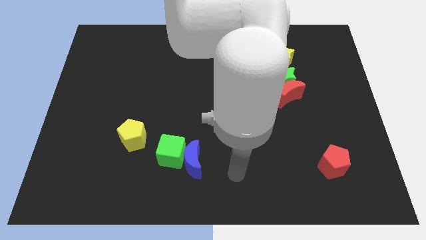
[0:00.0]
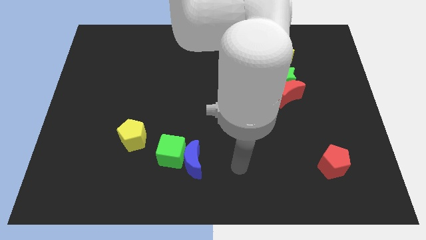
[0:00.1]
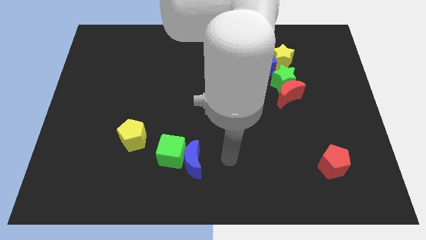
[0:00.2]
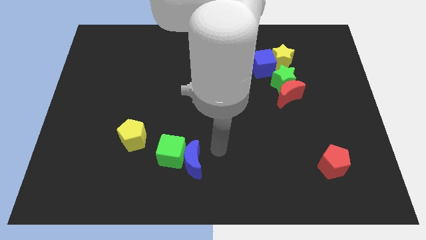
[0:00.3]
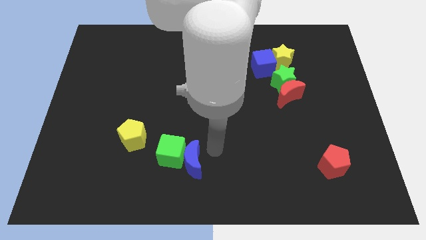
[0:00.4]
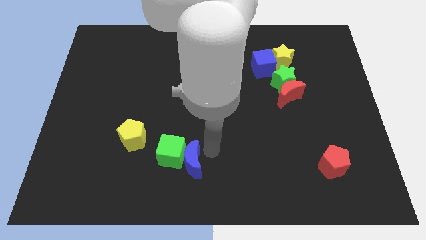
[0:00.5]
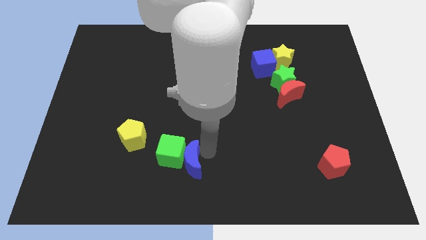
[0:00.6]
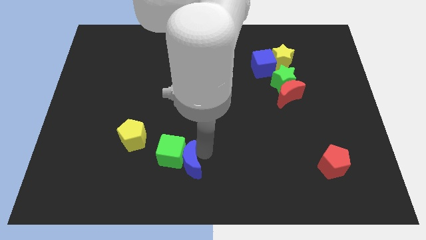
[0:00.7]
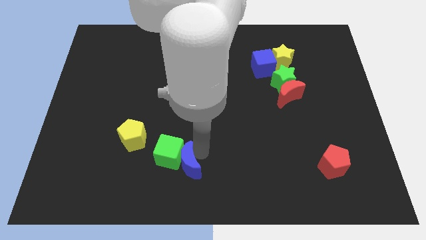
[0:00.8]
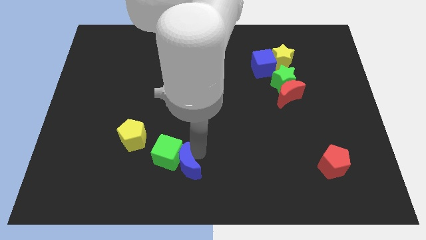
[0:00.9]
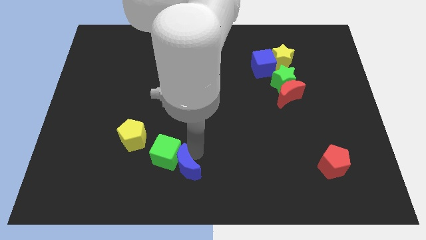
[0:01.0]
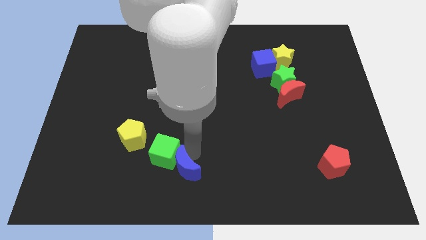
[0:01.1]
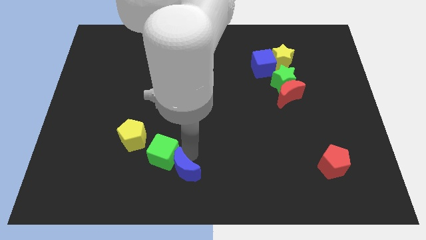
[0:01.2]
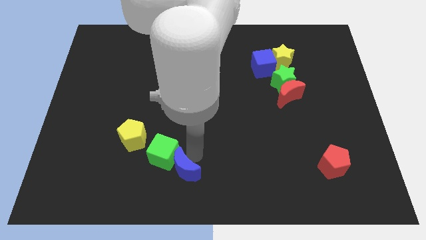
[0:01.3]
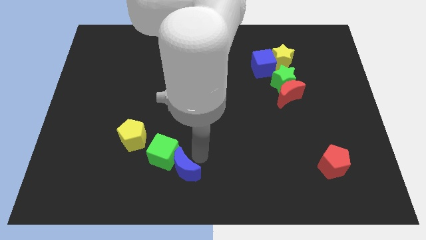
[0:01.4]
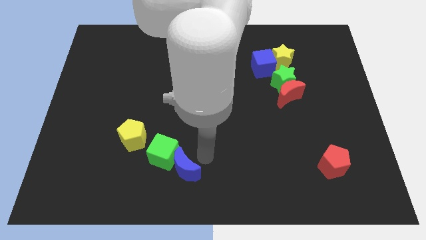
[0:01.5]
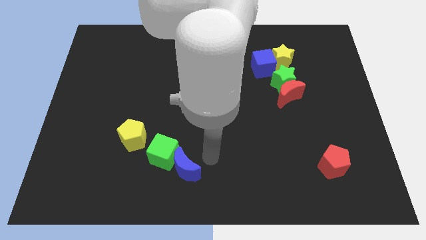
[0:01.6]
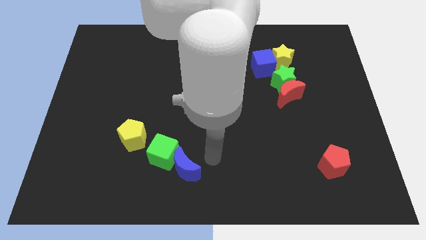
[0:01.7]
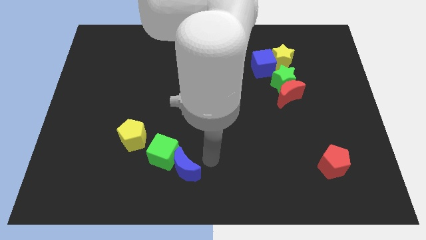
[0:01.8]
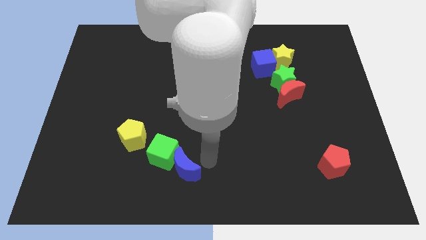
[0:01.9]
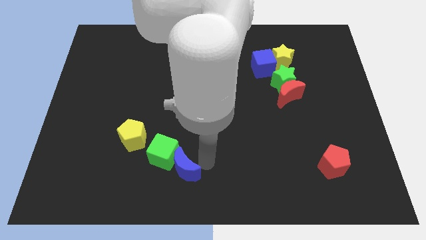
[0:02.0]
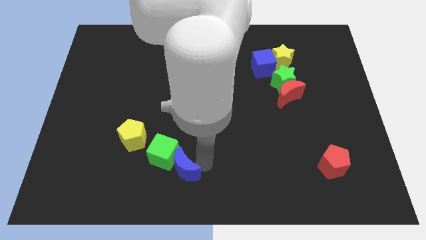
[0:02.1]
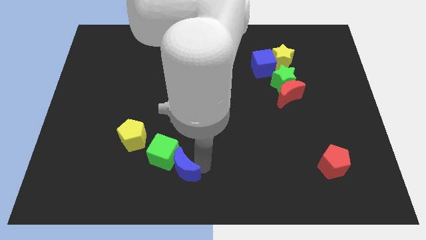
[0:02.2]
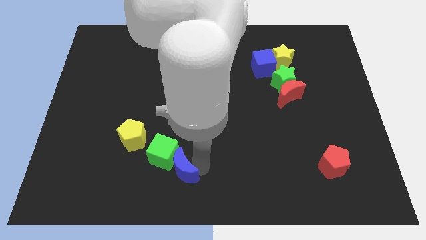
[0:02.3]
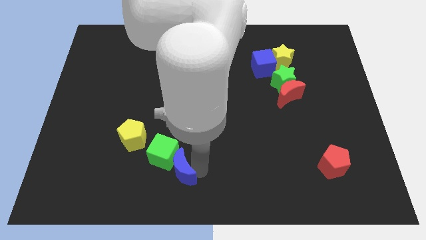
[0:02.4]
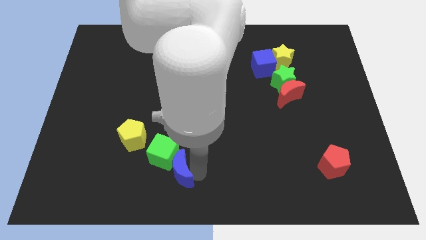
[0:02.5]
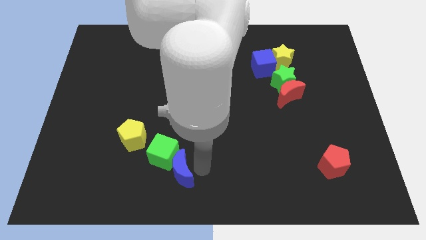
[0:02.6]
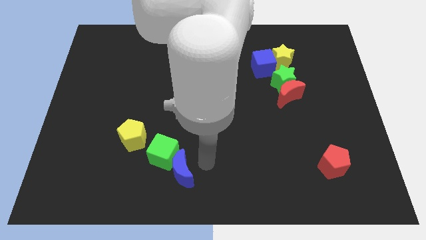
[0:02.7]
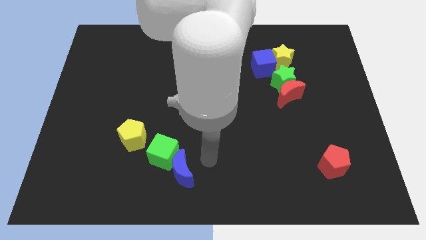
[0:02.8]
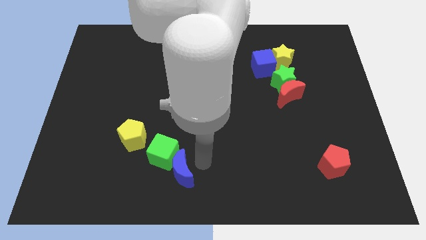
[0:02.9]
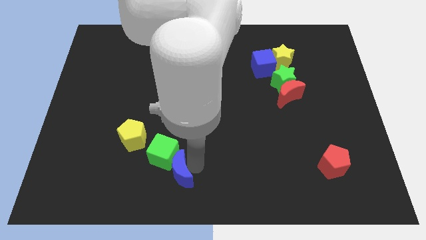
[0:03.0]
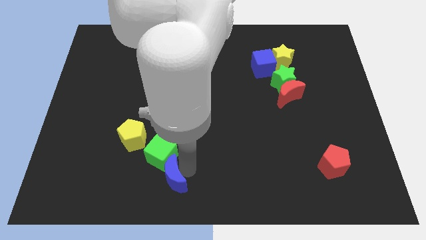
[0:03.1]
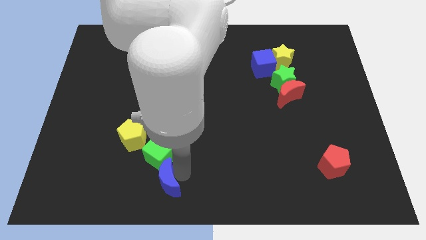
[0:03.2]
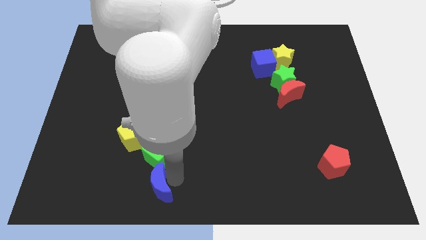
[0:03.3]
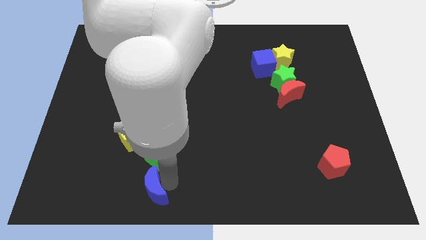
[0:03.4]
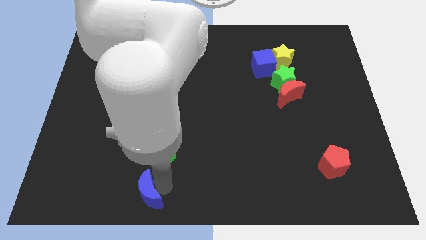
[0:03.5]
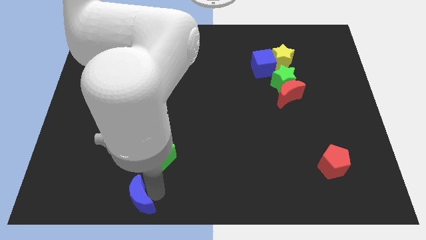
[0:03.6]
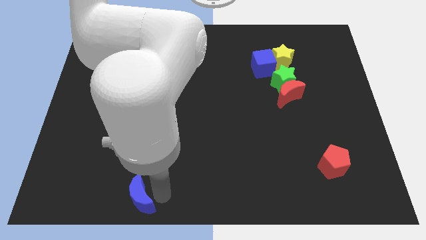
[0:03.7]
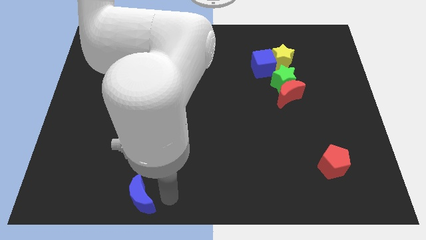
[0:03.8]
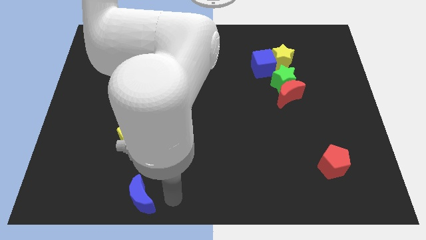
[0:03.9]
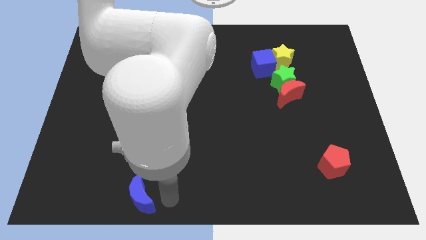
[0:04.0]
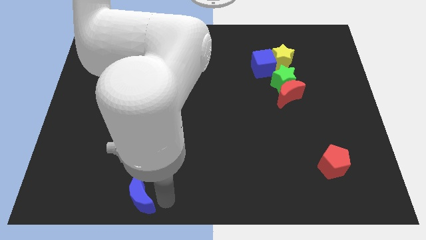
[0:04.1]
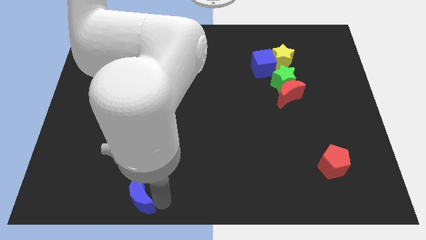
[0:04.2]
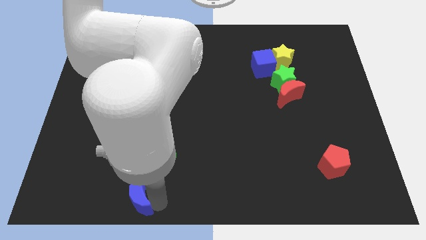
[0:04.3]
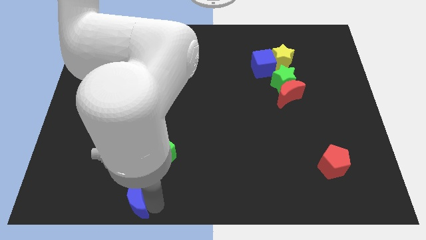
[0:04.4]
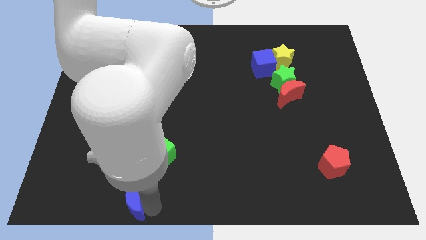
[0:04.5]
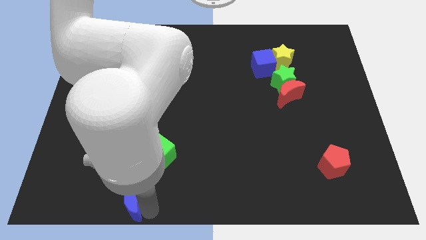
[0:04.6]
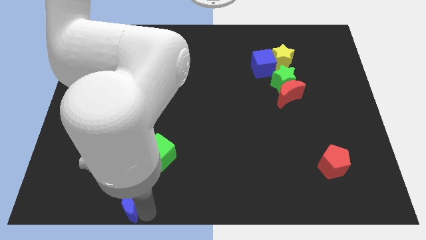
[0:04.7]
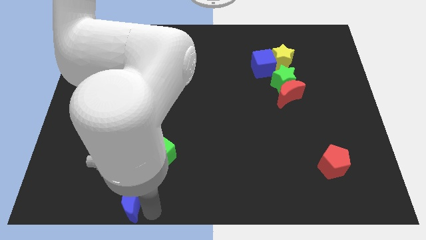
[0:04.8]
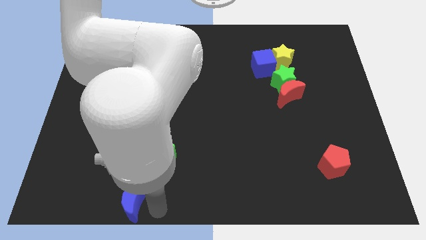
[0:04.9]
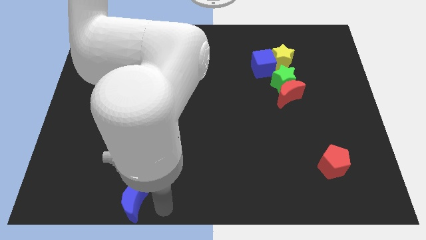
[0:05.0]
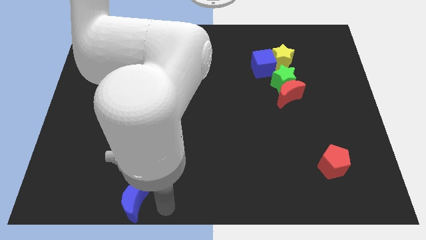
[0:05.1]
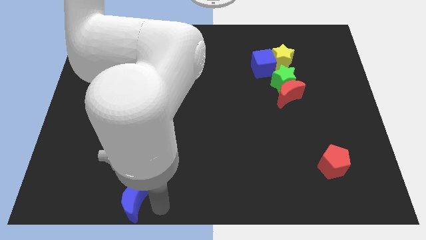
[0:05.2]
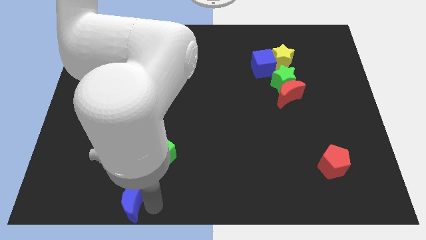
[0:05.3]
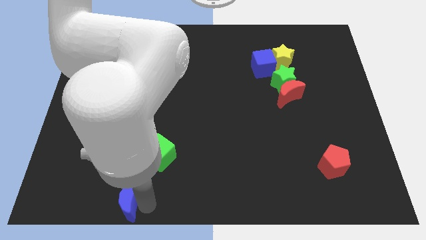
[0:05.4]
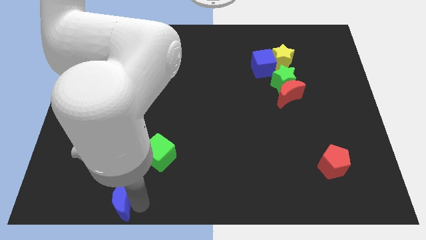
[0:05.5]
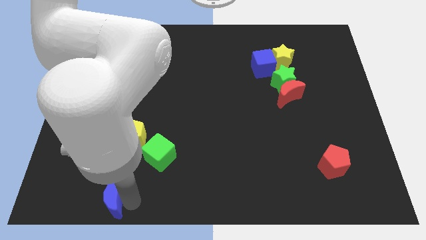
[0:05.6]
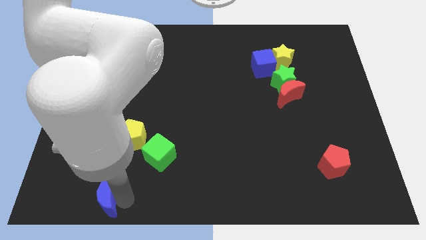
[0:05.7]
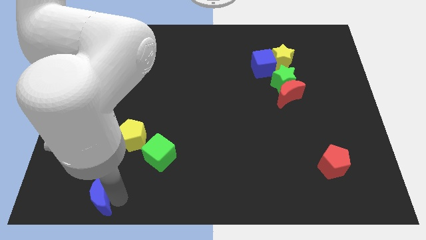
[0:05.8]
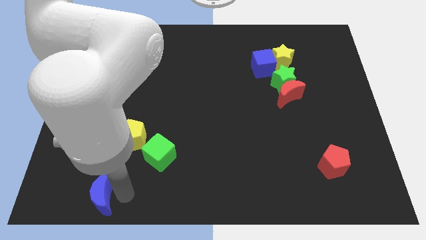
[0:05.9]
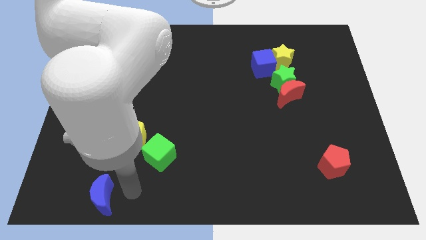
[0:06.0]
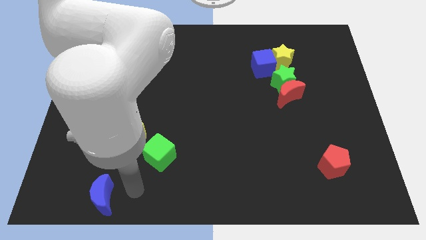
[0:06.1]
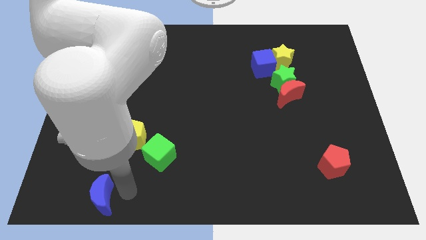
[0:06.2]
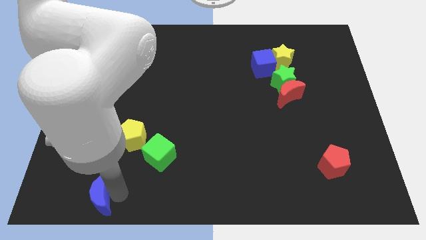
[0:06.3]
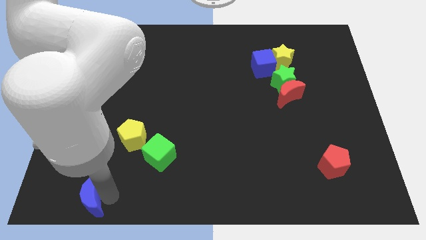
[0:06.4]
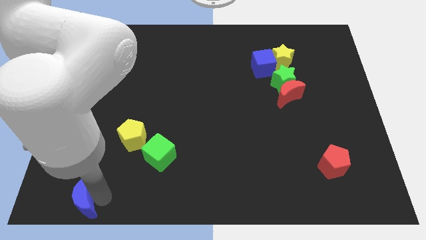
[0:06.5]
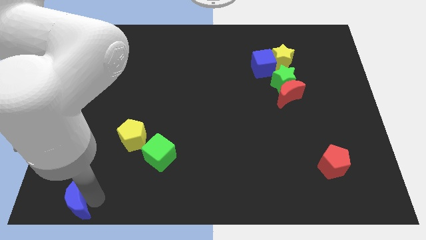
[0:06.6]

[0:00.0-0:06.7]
move the blue moon to the lower left corner
